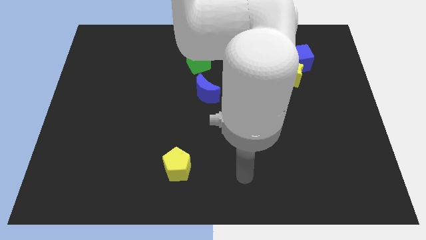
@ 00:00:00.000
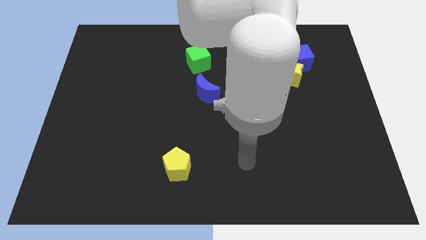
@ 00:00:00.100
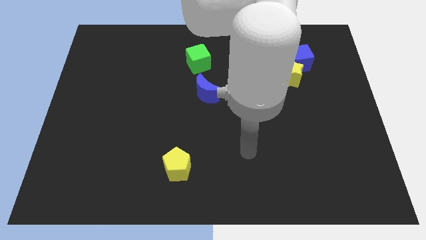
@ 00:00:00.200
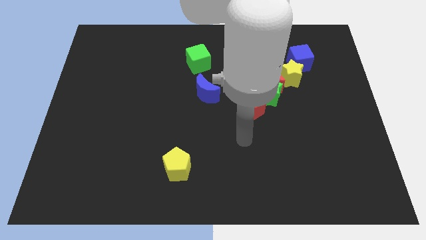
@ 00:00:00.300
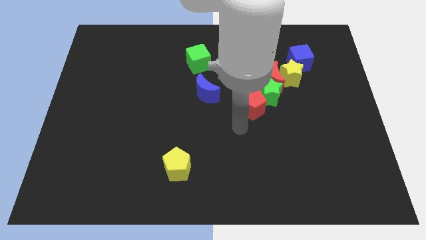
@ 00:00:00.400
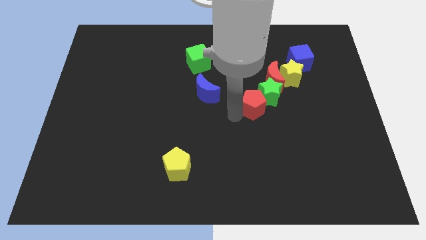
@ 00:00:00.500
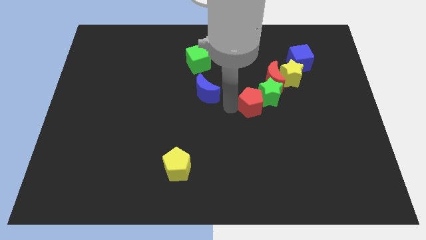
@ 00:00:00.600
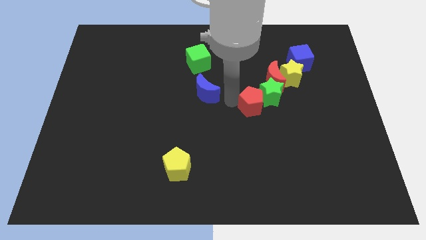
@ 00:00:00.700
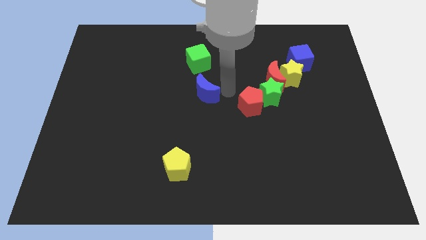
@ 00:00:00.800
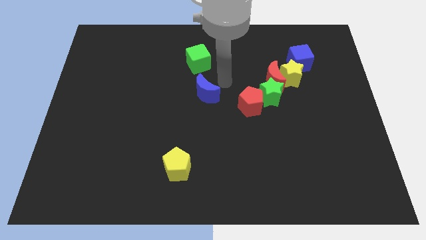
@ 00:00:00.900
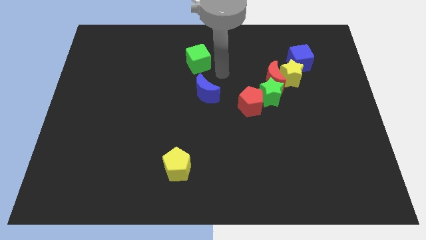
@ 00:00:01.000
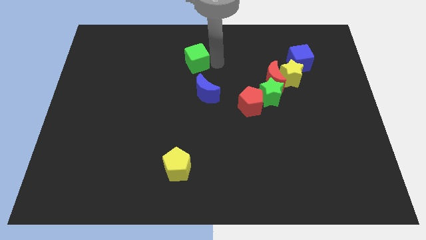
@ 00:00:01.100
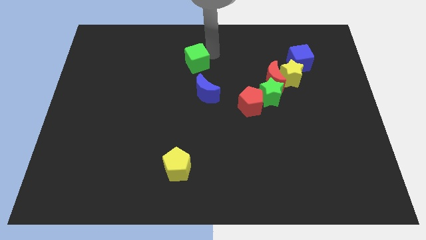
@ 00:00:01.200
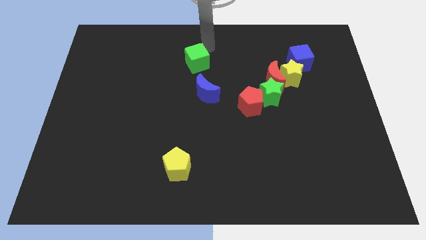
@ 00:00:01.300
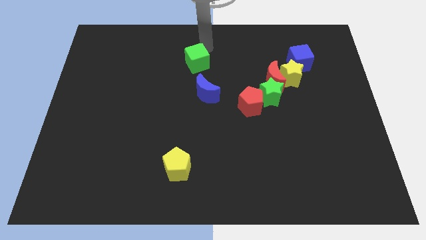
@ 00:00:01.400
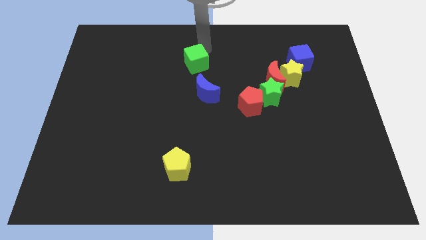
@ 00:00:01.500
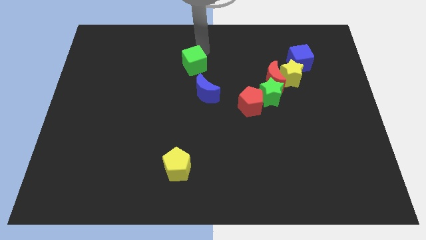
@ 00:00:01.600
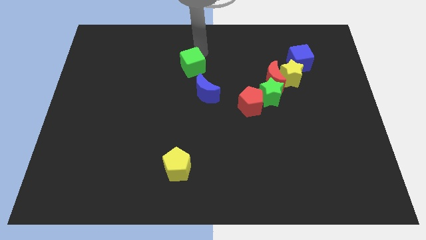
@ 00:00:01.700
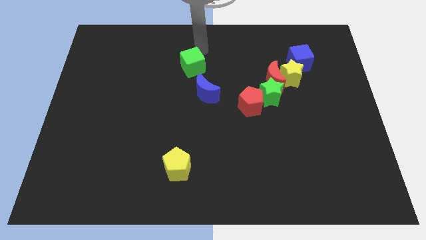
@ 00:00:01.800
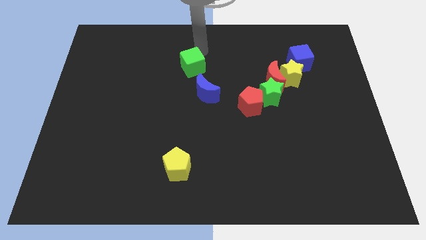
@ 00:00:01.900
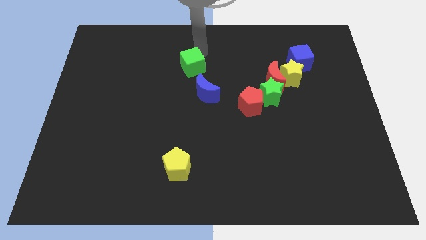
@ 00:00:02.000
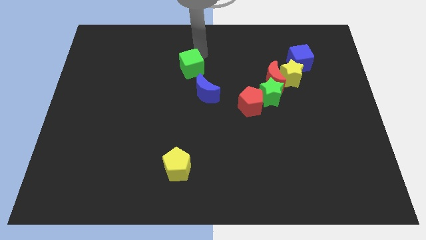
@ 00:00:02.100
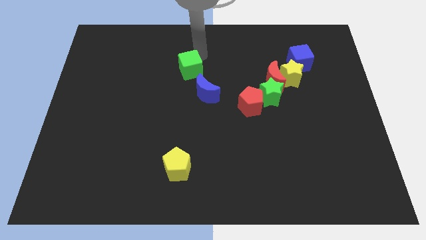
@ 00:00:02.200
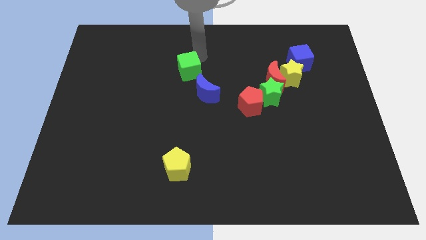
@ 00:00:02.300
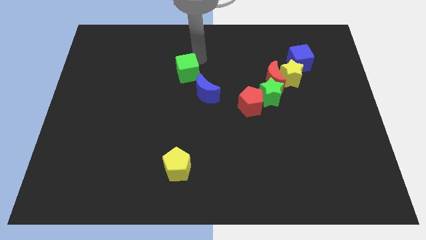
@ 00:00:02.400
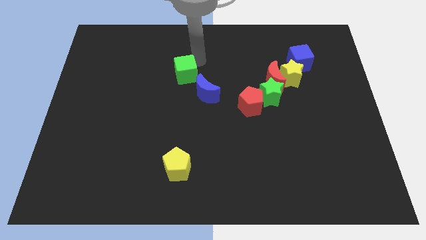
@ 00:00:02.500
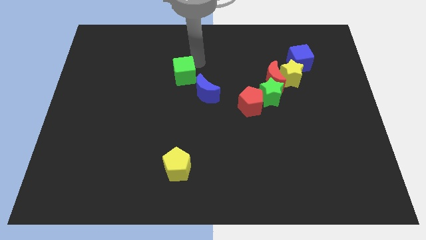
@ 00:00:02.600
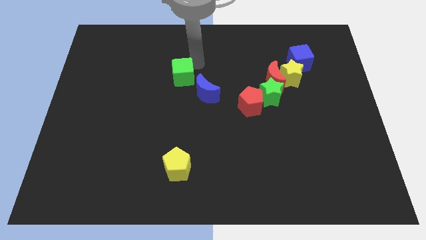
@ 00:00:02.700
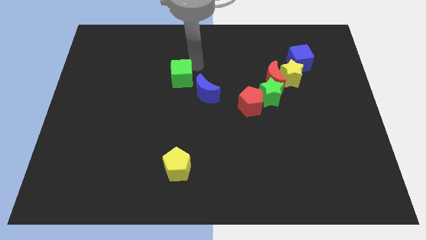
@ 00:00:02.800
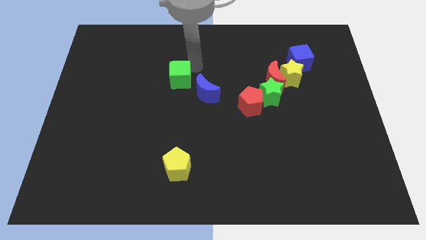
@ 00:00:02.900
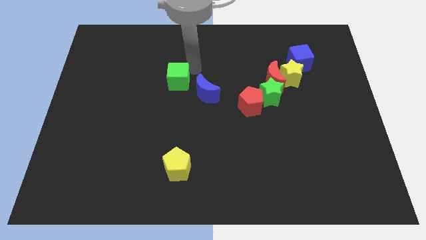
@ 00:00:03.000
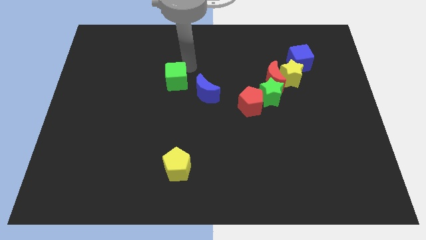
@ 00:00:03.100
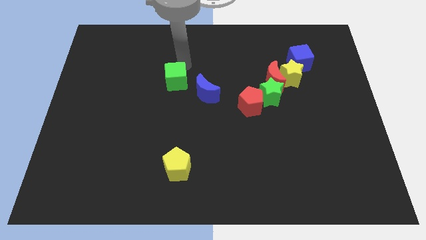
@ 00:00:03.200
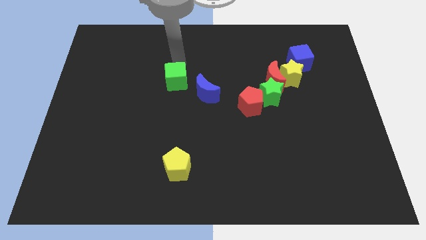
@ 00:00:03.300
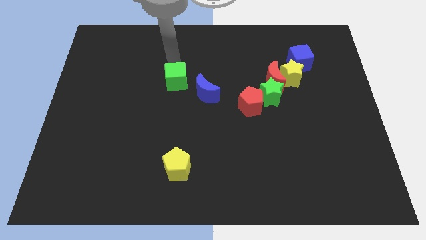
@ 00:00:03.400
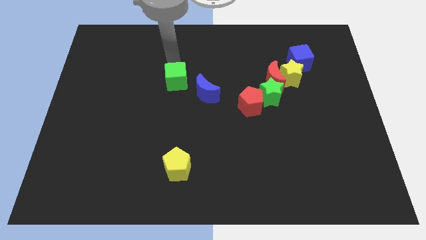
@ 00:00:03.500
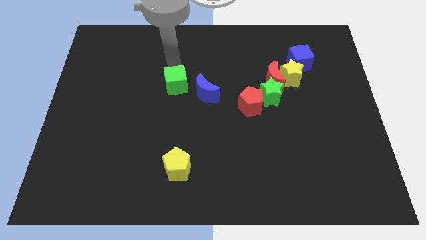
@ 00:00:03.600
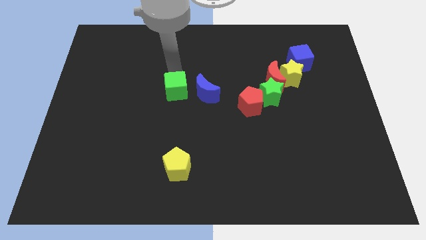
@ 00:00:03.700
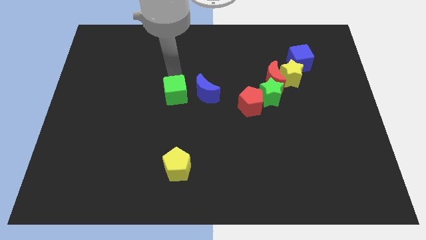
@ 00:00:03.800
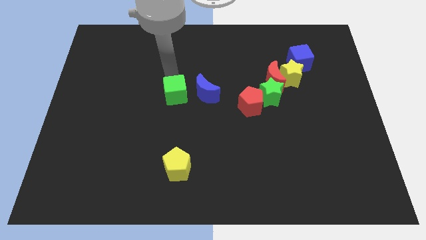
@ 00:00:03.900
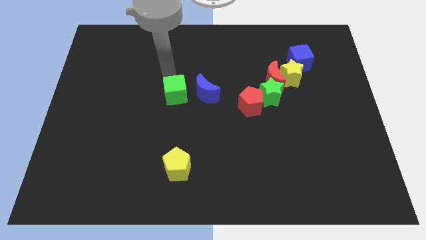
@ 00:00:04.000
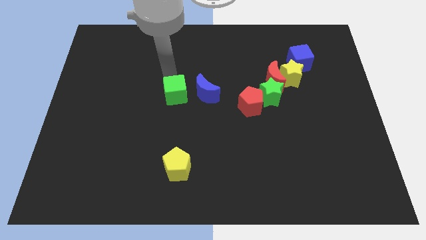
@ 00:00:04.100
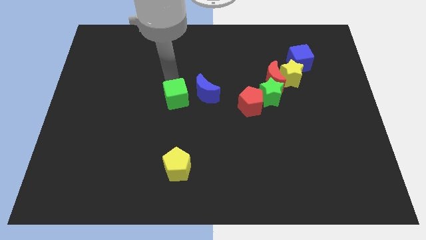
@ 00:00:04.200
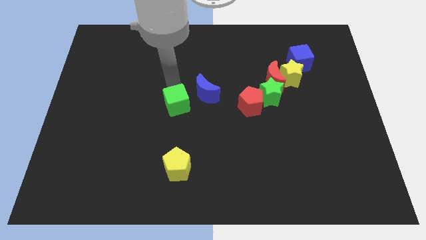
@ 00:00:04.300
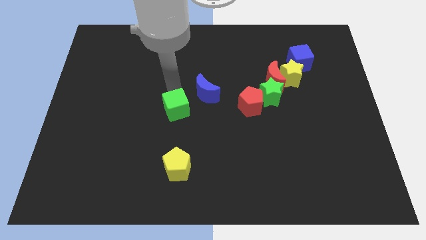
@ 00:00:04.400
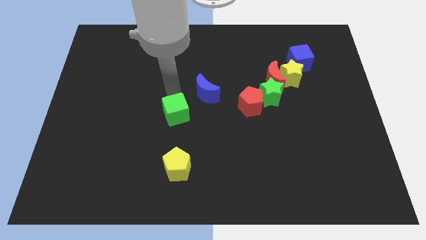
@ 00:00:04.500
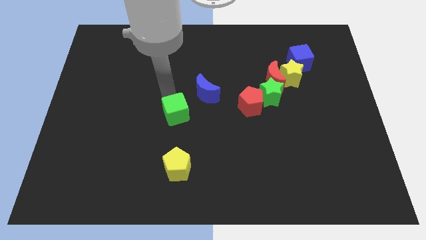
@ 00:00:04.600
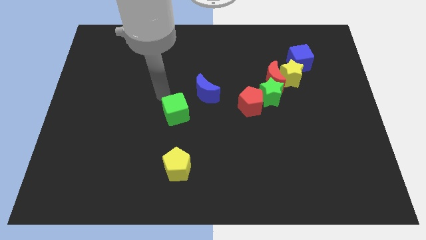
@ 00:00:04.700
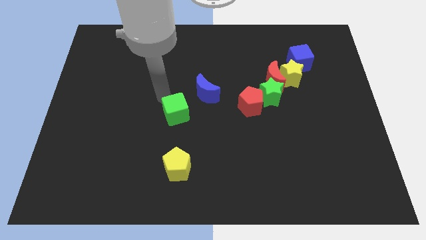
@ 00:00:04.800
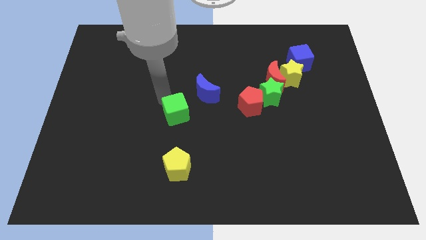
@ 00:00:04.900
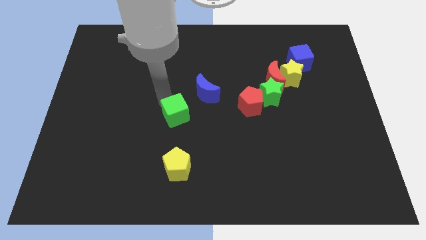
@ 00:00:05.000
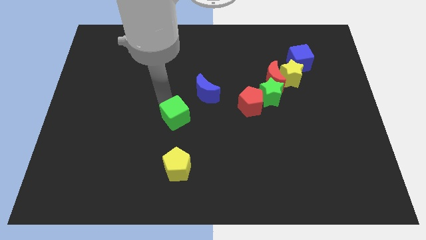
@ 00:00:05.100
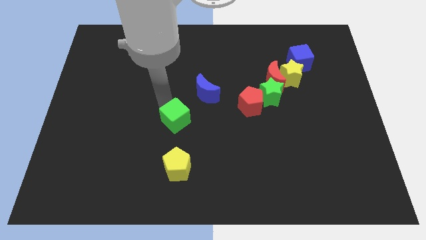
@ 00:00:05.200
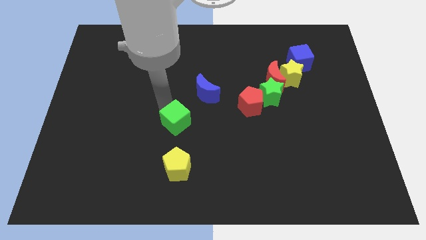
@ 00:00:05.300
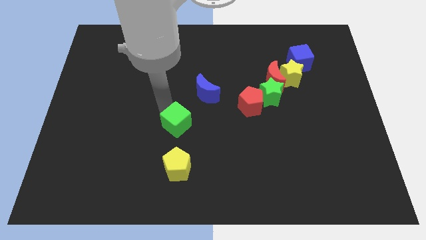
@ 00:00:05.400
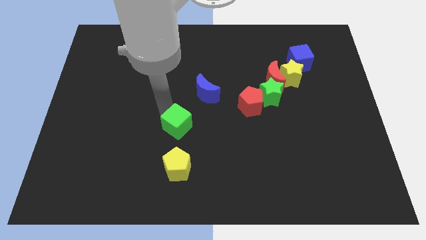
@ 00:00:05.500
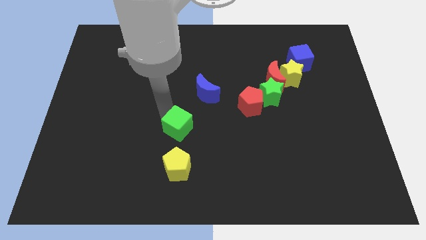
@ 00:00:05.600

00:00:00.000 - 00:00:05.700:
push the green cube downwards

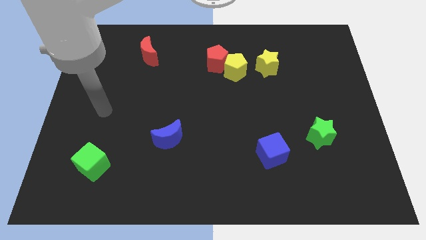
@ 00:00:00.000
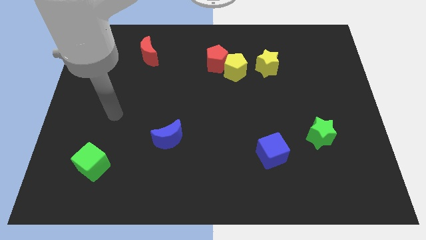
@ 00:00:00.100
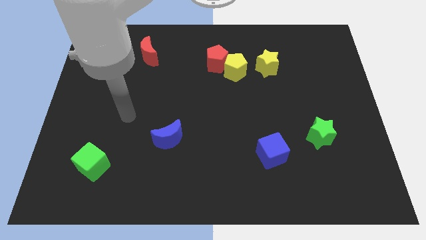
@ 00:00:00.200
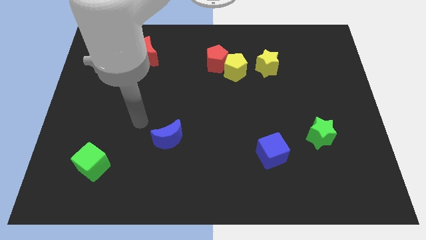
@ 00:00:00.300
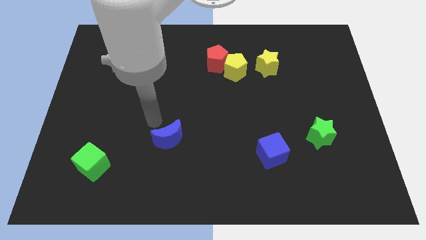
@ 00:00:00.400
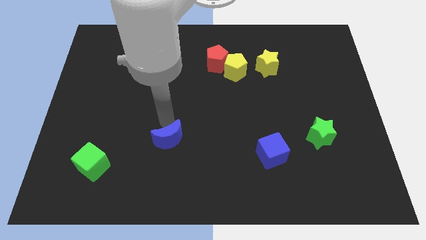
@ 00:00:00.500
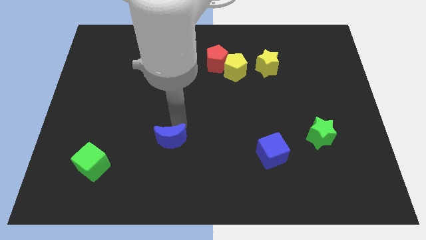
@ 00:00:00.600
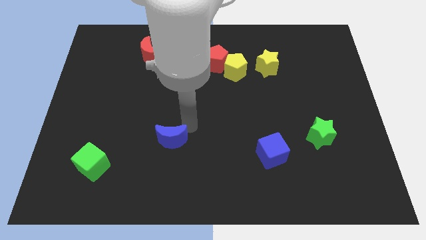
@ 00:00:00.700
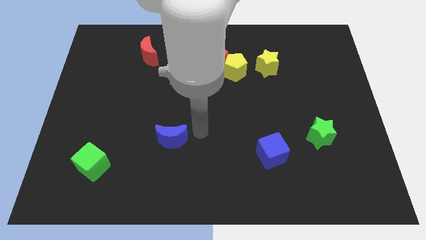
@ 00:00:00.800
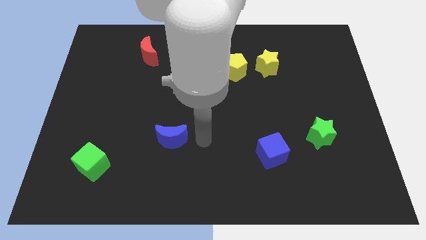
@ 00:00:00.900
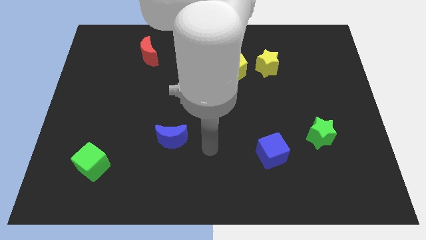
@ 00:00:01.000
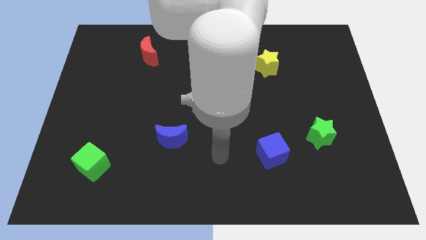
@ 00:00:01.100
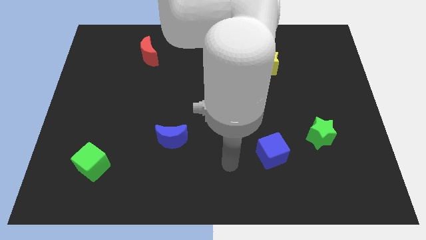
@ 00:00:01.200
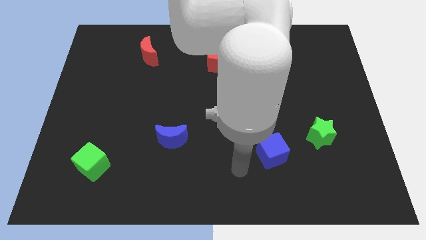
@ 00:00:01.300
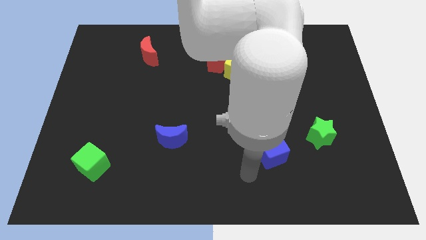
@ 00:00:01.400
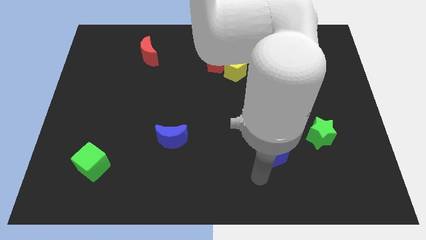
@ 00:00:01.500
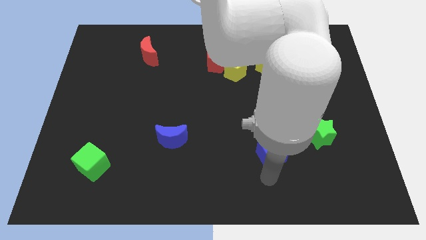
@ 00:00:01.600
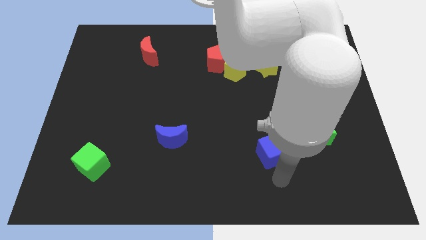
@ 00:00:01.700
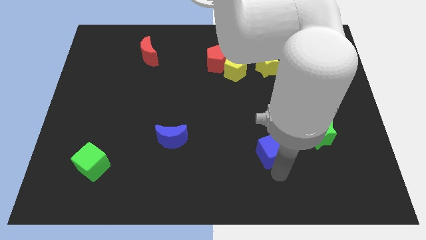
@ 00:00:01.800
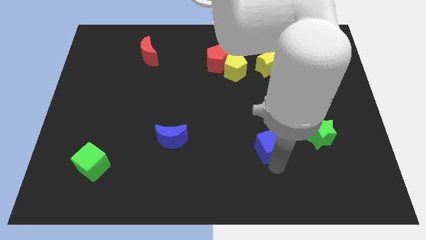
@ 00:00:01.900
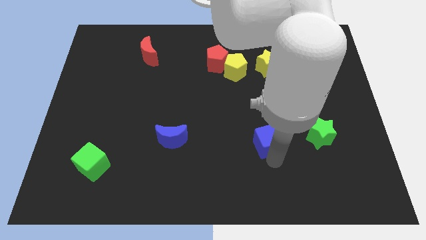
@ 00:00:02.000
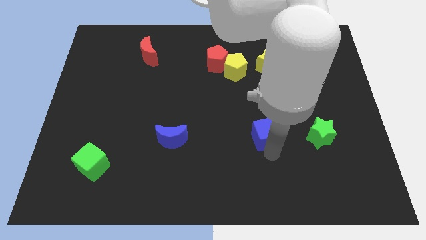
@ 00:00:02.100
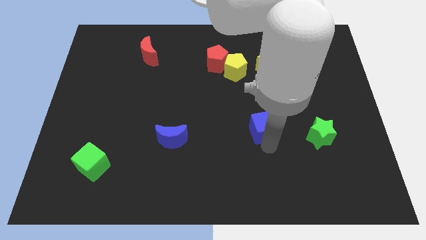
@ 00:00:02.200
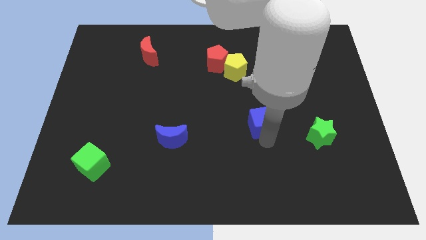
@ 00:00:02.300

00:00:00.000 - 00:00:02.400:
slide the blue cube upwards somewhat
